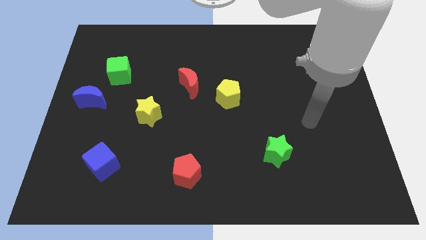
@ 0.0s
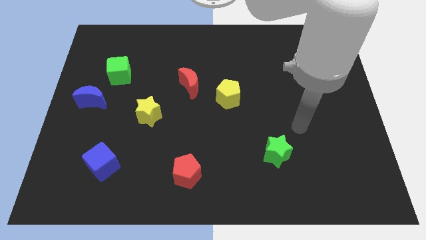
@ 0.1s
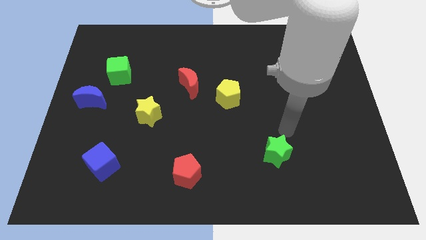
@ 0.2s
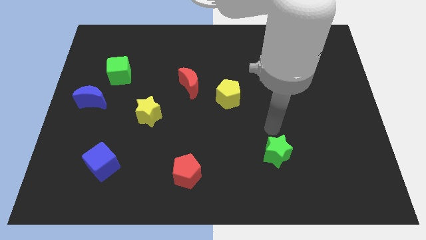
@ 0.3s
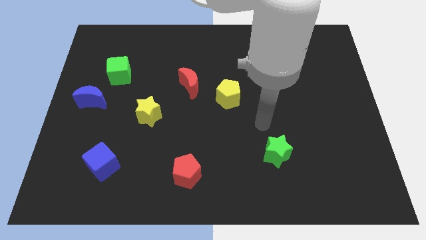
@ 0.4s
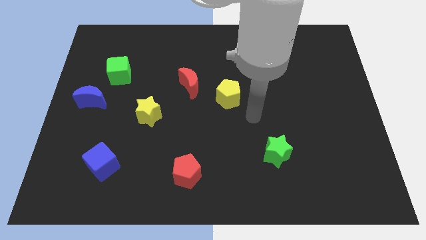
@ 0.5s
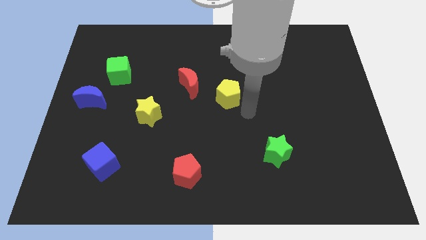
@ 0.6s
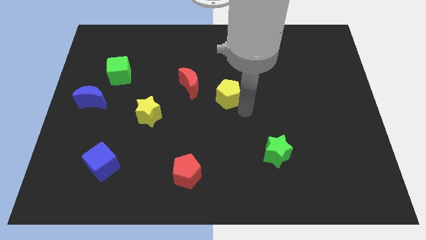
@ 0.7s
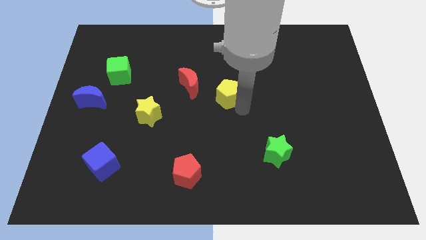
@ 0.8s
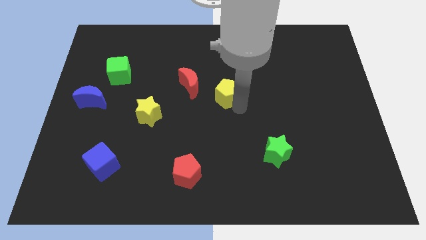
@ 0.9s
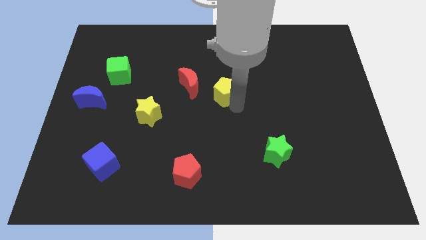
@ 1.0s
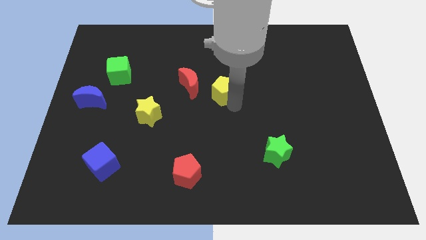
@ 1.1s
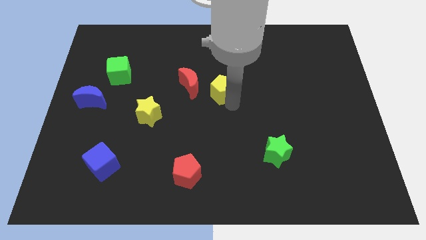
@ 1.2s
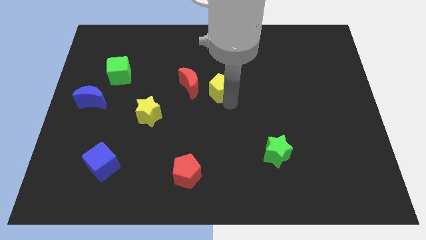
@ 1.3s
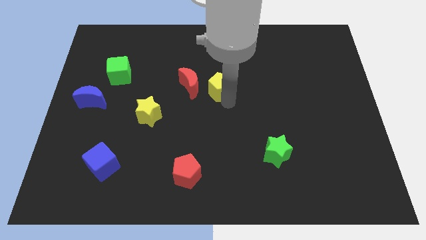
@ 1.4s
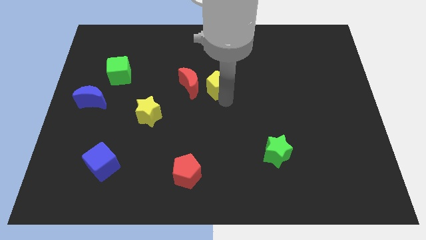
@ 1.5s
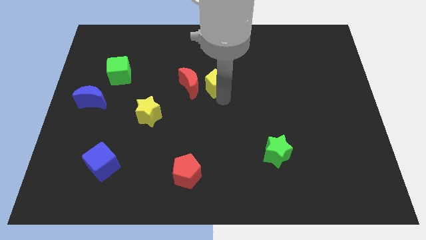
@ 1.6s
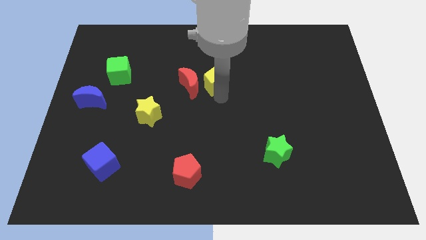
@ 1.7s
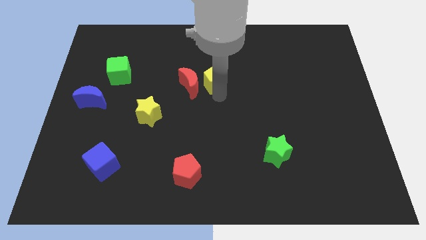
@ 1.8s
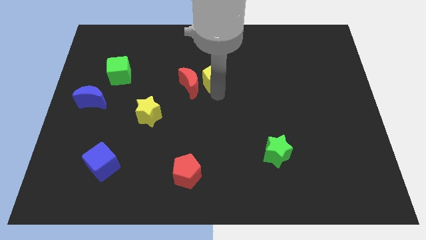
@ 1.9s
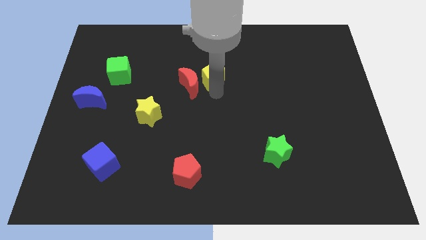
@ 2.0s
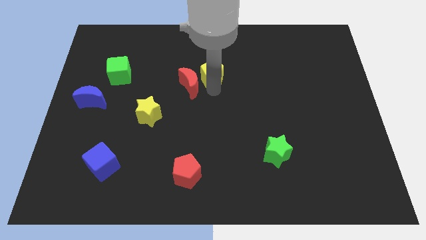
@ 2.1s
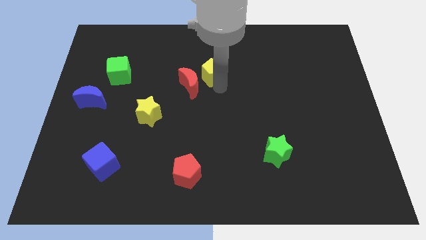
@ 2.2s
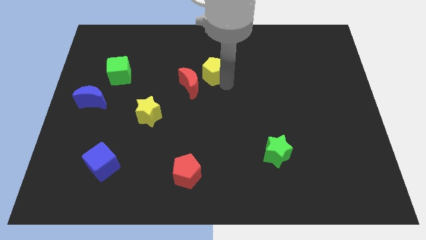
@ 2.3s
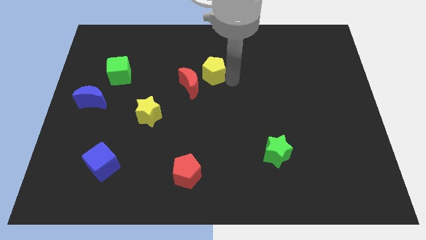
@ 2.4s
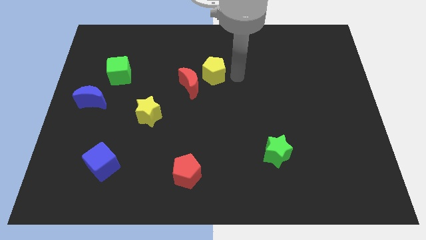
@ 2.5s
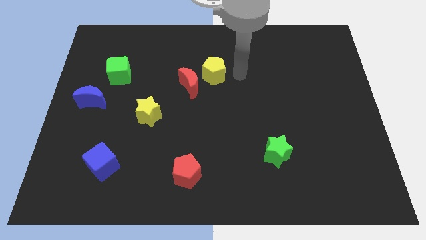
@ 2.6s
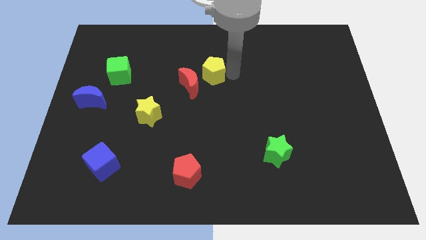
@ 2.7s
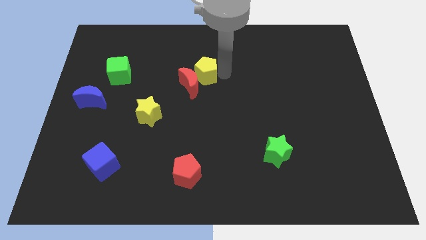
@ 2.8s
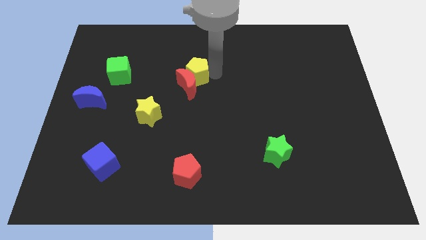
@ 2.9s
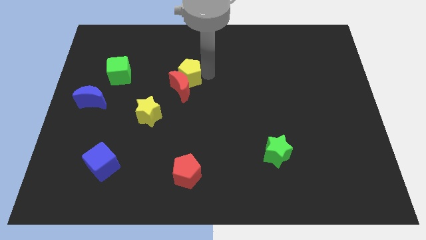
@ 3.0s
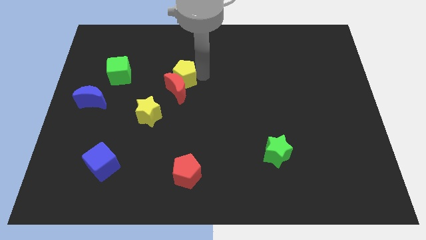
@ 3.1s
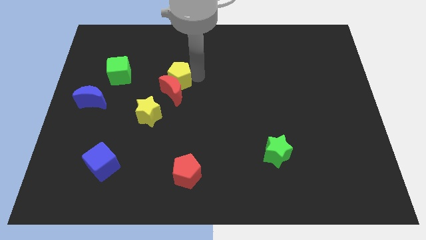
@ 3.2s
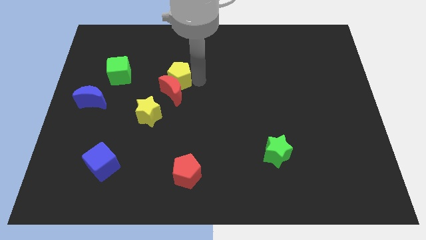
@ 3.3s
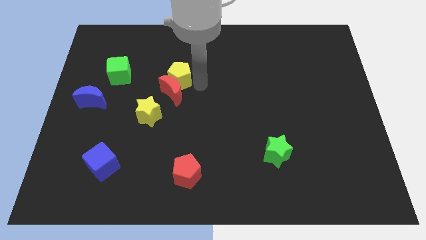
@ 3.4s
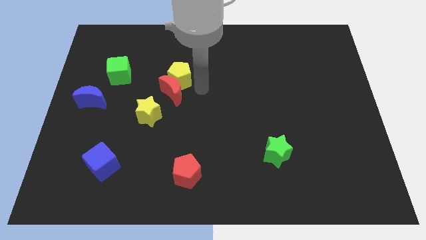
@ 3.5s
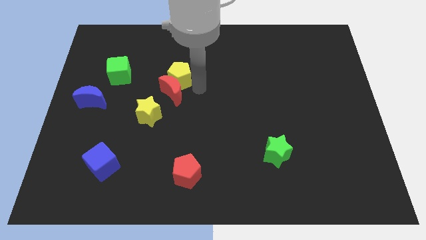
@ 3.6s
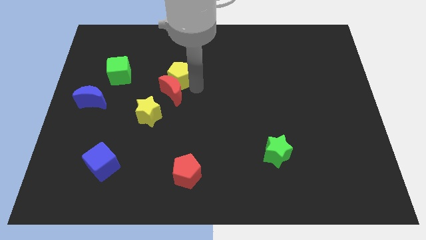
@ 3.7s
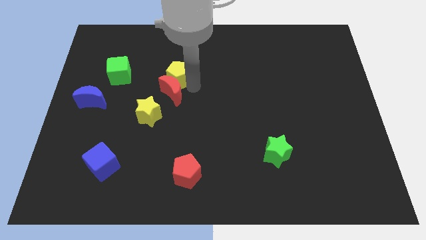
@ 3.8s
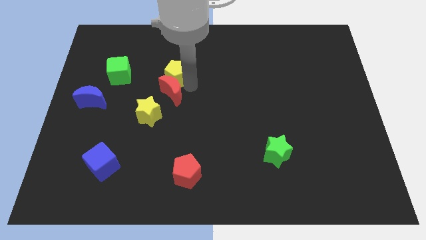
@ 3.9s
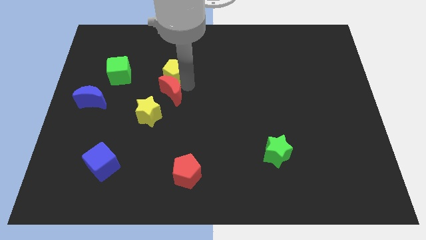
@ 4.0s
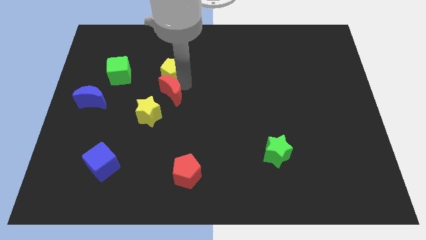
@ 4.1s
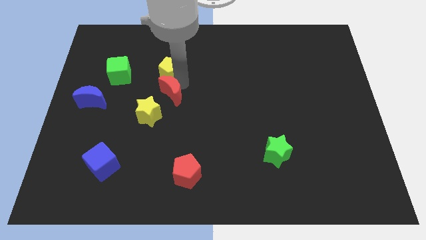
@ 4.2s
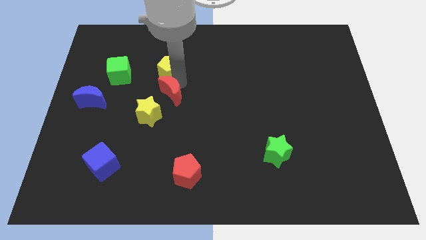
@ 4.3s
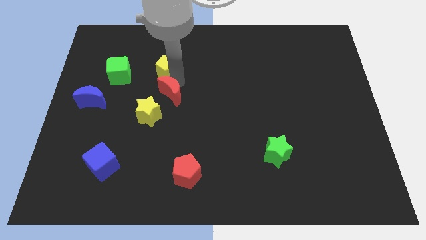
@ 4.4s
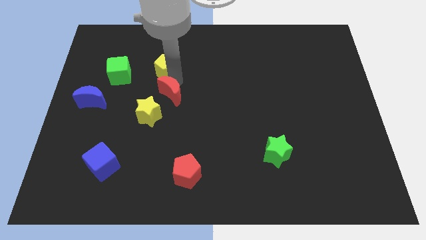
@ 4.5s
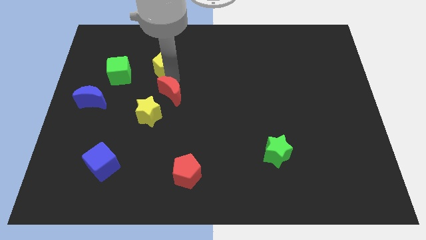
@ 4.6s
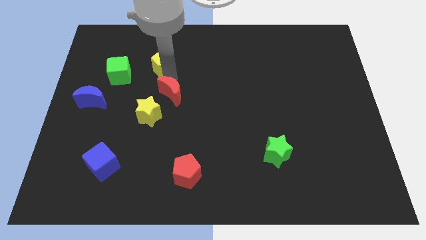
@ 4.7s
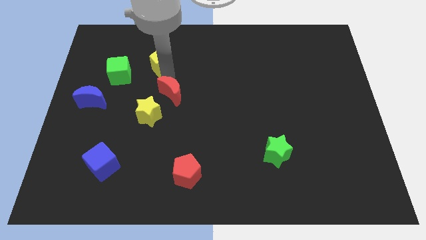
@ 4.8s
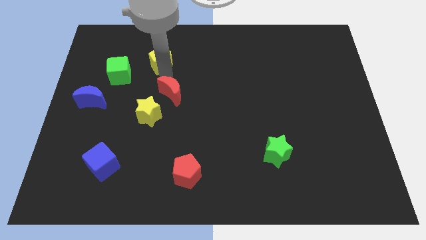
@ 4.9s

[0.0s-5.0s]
move the yellow pentagon to the top right side of the green cube

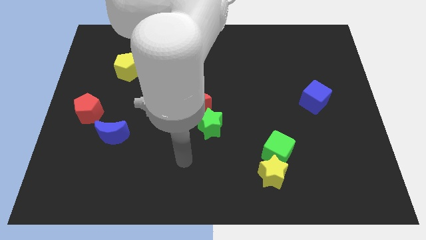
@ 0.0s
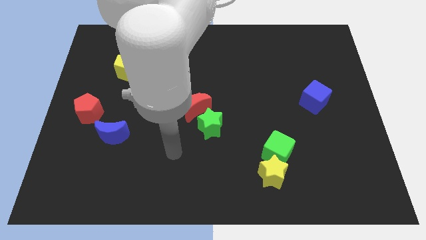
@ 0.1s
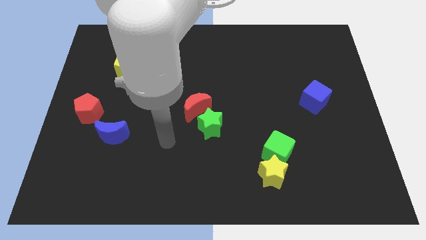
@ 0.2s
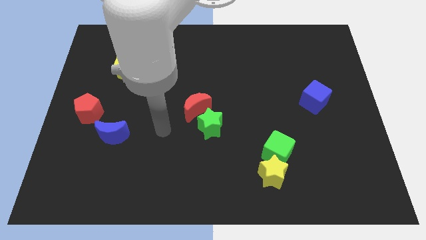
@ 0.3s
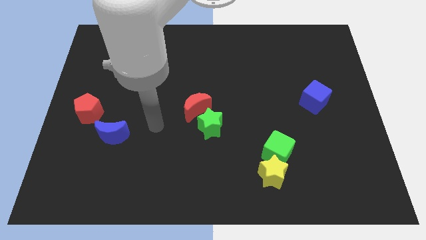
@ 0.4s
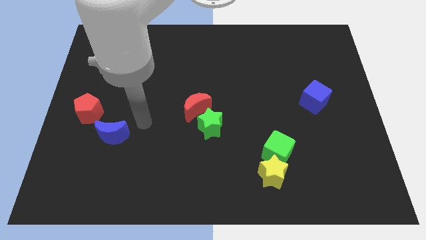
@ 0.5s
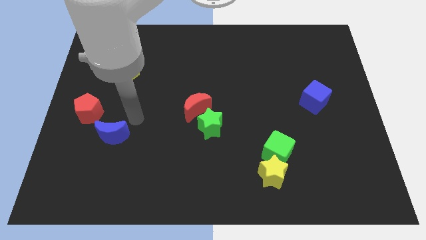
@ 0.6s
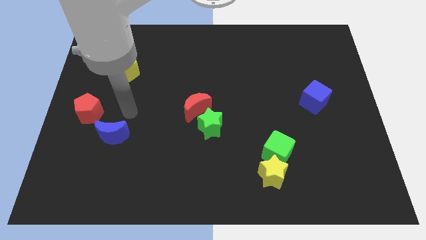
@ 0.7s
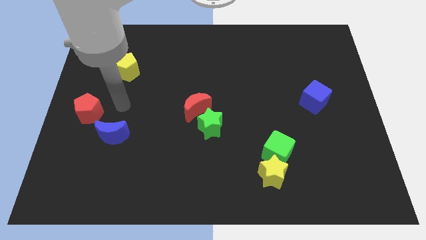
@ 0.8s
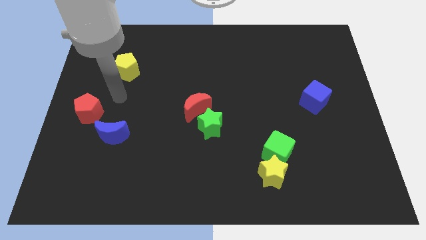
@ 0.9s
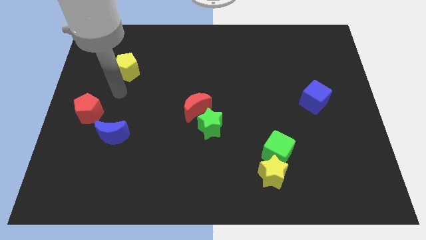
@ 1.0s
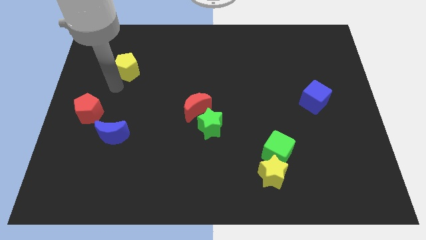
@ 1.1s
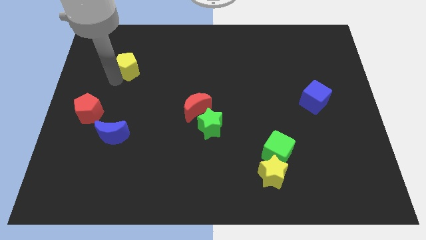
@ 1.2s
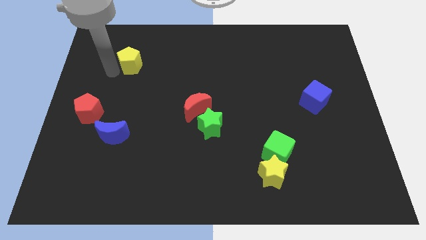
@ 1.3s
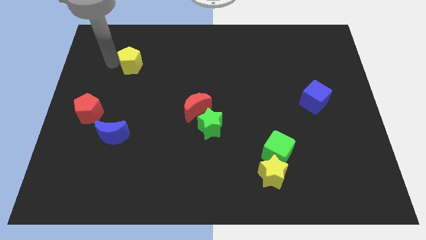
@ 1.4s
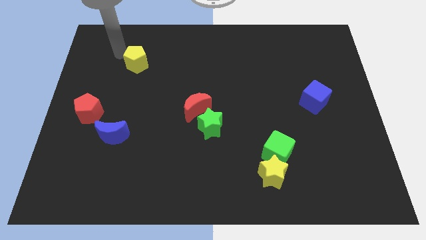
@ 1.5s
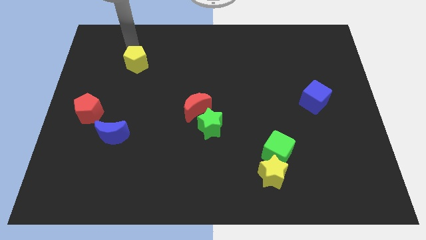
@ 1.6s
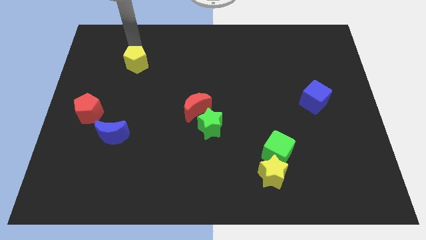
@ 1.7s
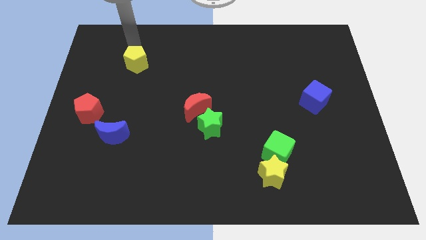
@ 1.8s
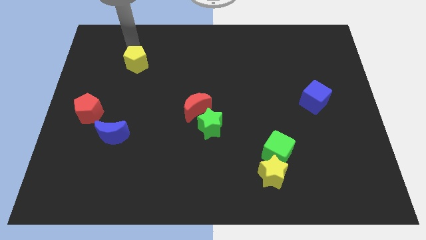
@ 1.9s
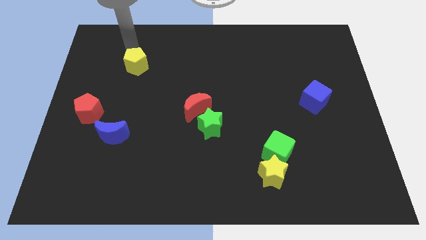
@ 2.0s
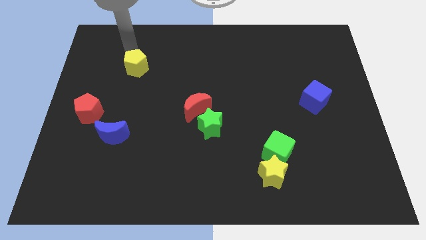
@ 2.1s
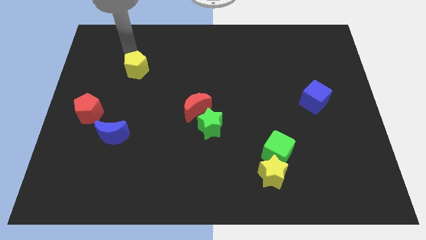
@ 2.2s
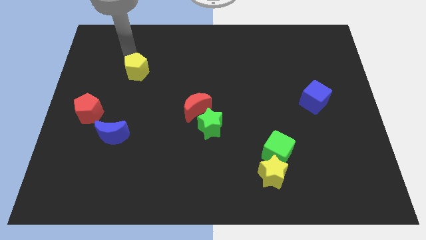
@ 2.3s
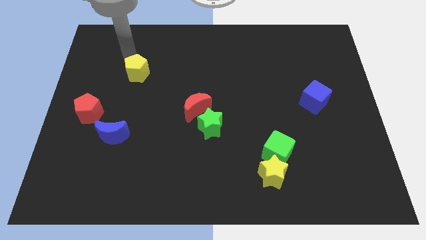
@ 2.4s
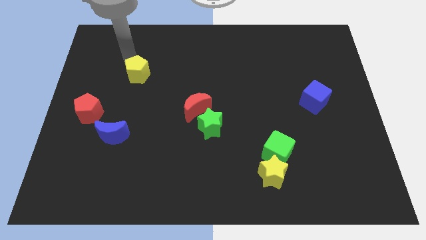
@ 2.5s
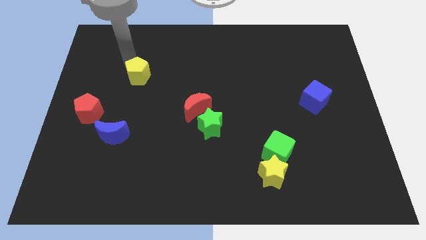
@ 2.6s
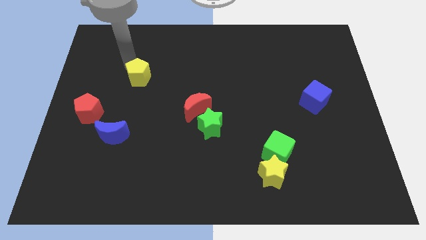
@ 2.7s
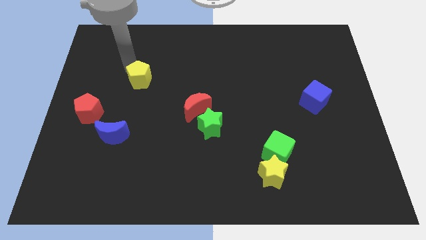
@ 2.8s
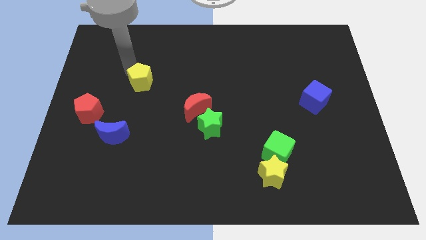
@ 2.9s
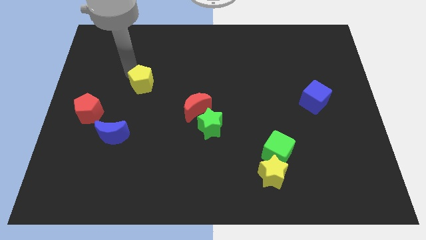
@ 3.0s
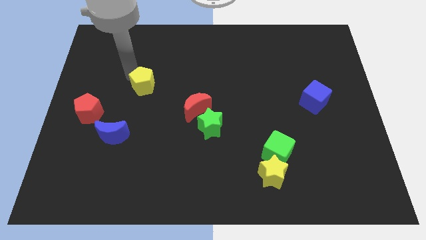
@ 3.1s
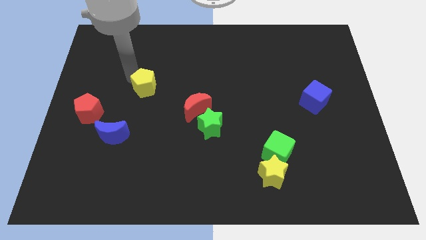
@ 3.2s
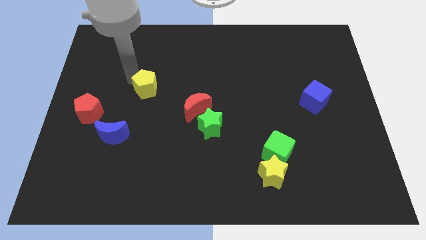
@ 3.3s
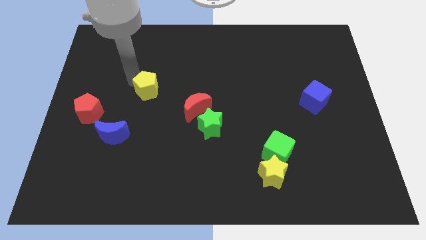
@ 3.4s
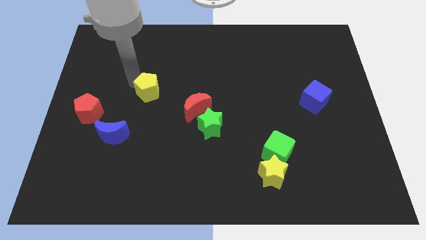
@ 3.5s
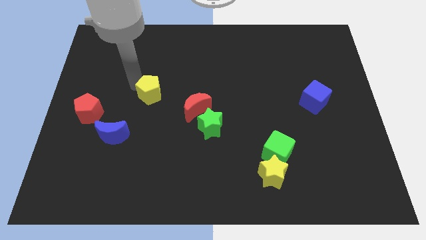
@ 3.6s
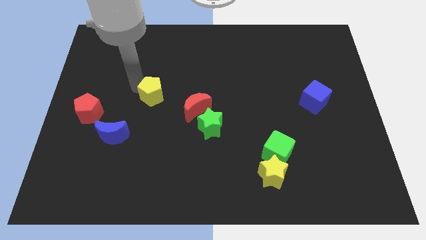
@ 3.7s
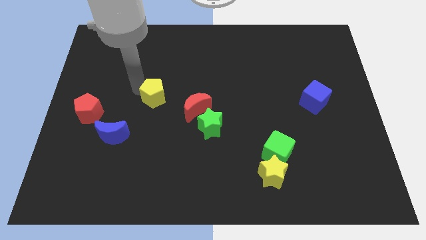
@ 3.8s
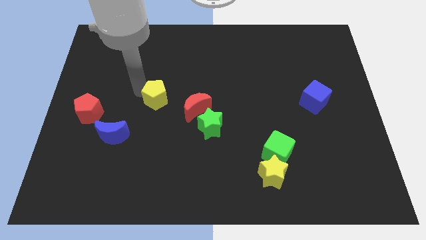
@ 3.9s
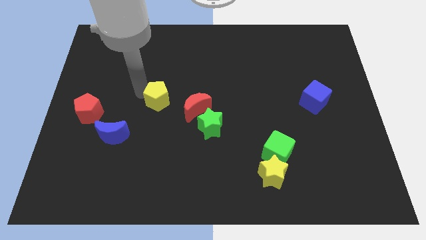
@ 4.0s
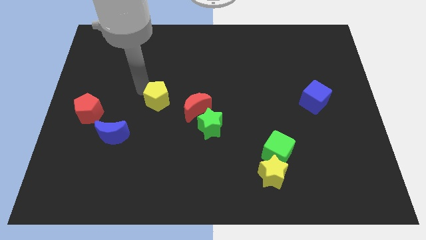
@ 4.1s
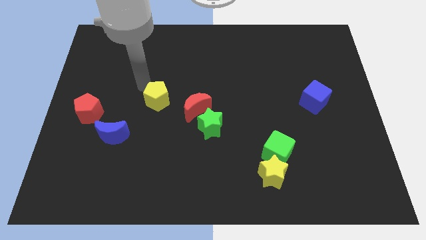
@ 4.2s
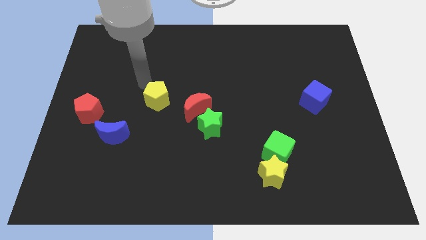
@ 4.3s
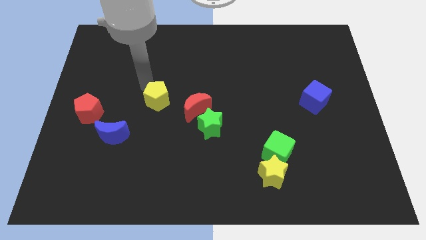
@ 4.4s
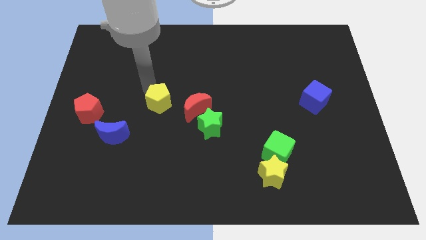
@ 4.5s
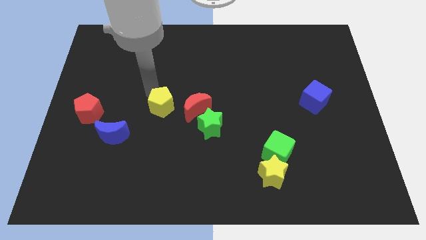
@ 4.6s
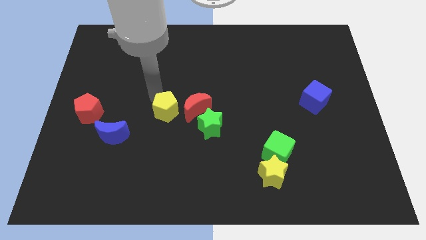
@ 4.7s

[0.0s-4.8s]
put the yellow pentagon to the bottom left of the red moon
